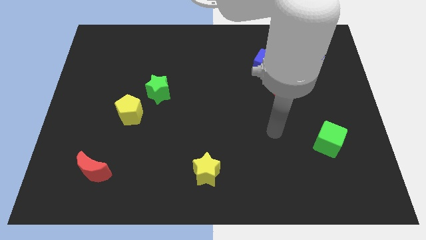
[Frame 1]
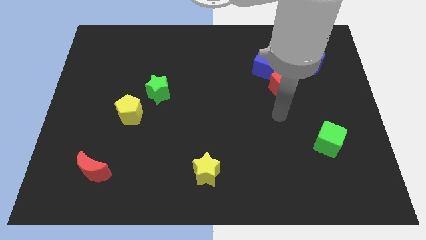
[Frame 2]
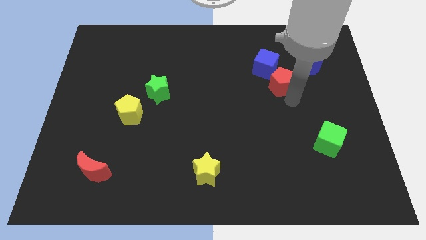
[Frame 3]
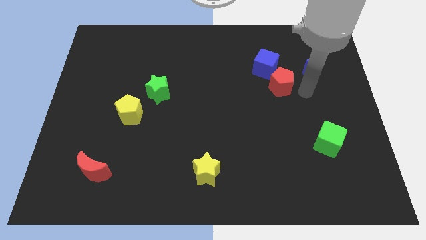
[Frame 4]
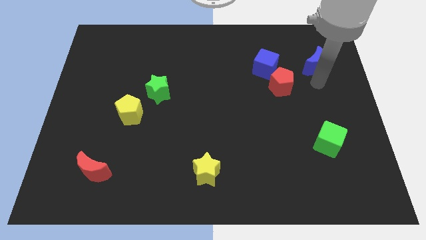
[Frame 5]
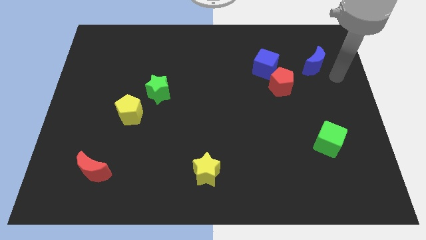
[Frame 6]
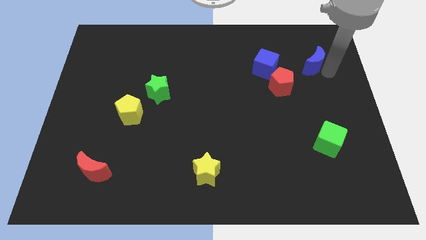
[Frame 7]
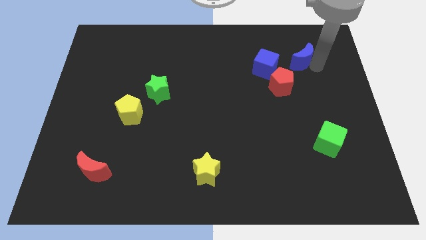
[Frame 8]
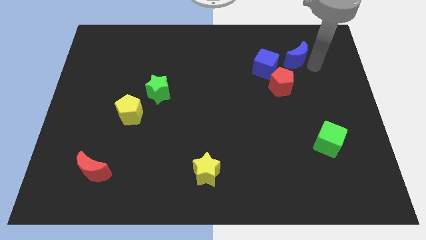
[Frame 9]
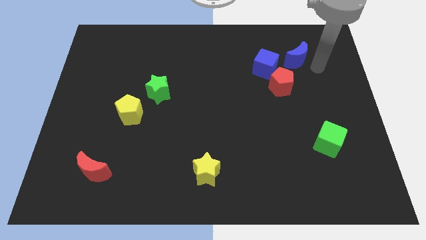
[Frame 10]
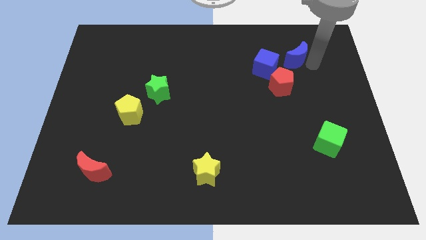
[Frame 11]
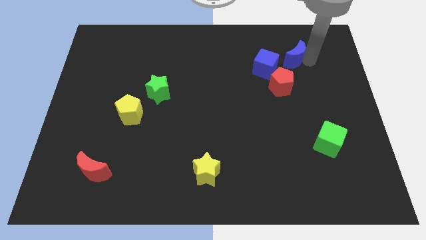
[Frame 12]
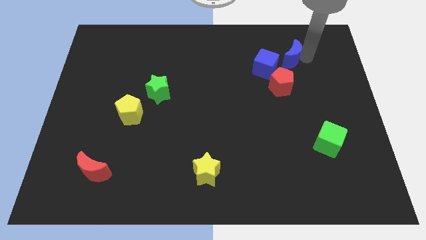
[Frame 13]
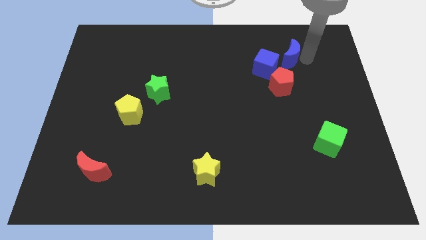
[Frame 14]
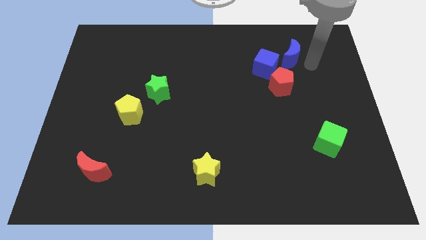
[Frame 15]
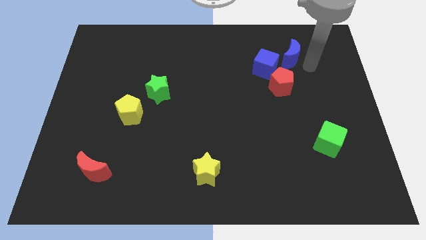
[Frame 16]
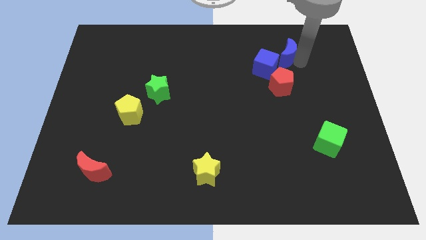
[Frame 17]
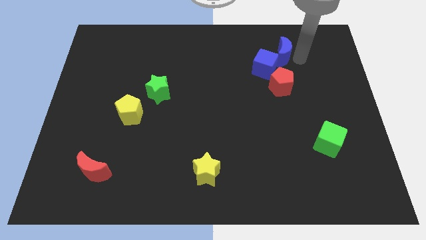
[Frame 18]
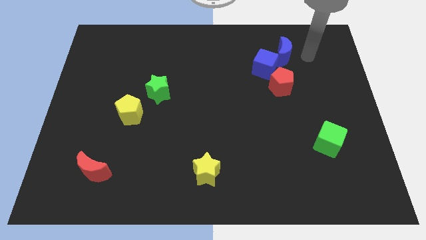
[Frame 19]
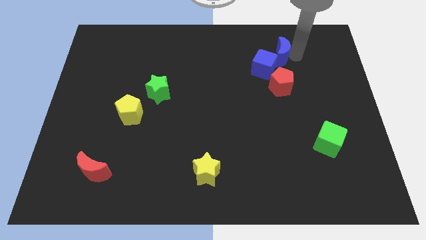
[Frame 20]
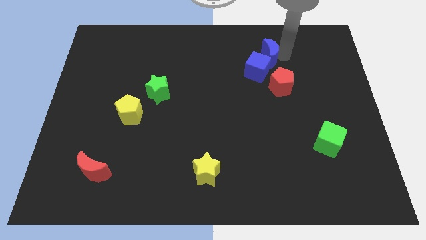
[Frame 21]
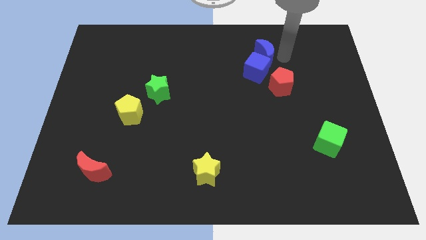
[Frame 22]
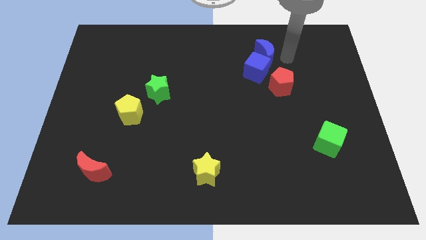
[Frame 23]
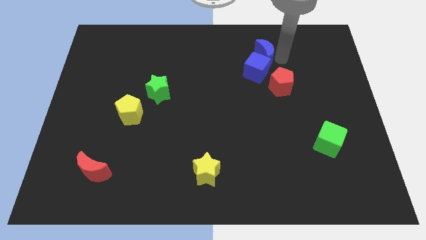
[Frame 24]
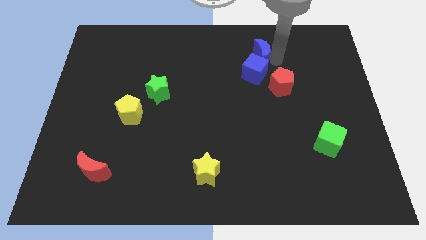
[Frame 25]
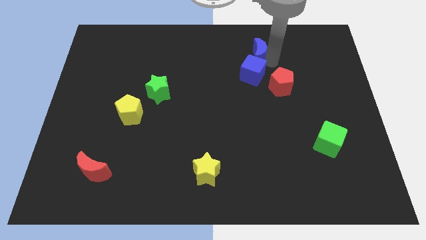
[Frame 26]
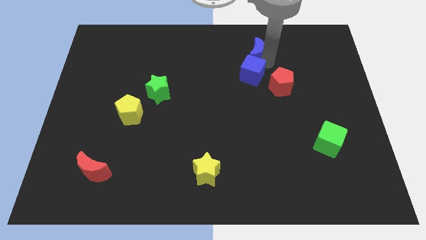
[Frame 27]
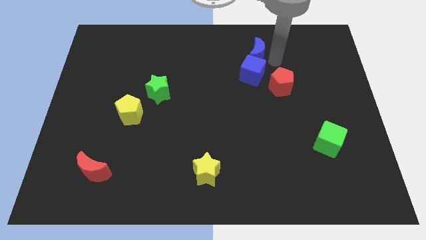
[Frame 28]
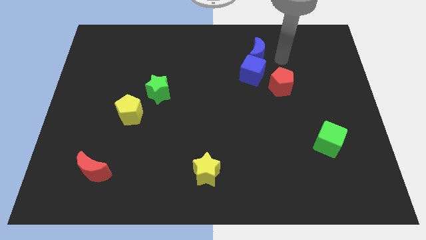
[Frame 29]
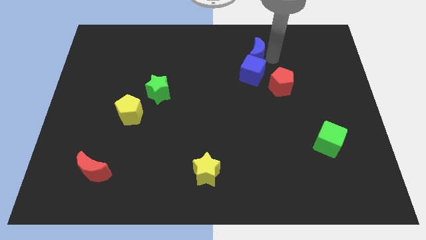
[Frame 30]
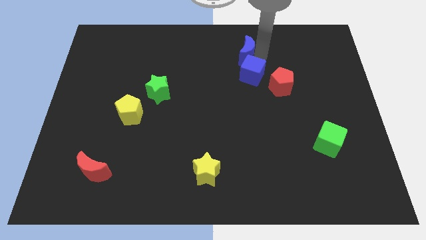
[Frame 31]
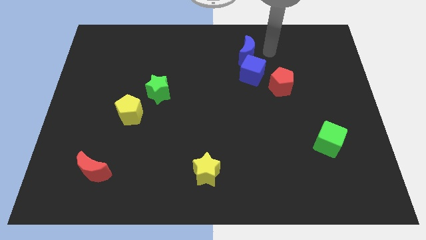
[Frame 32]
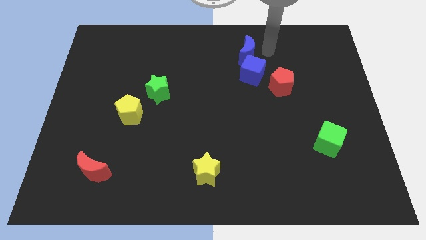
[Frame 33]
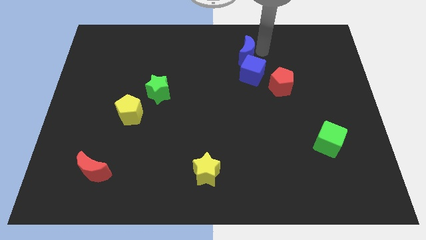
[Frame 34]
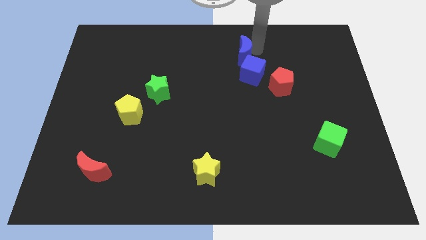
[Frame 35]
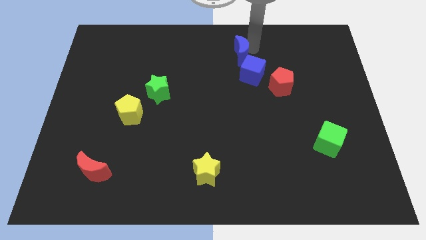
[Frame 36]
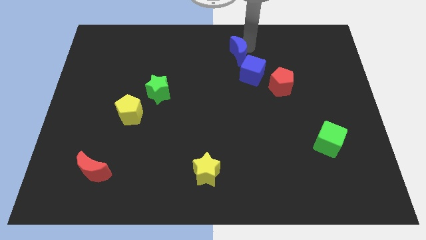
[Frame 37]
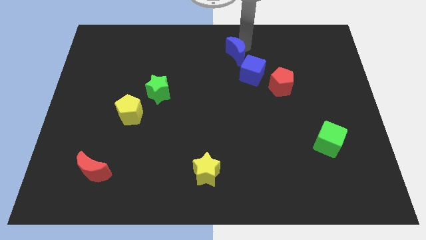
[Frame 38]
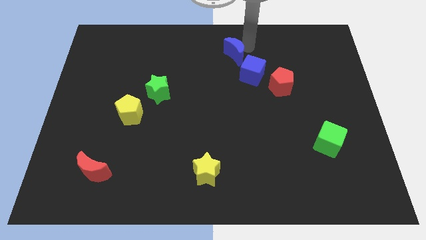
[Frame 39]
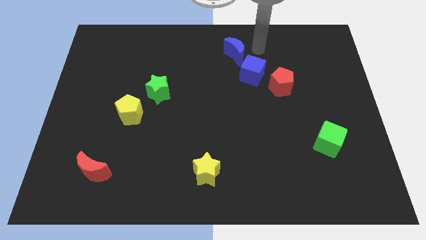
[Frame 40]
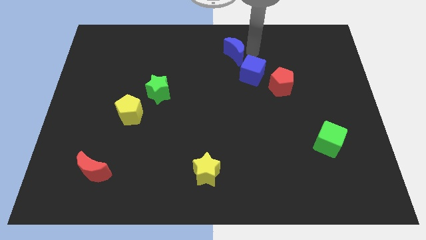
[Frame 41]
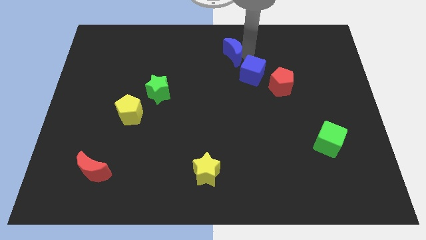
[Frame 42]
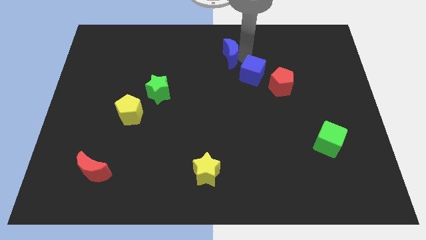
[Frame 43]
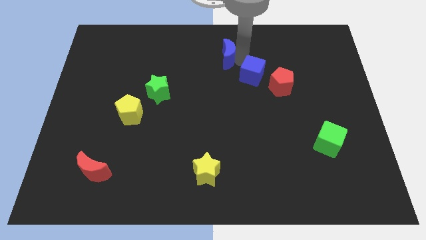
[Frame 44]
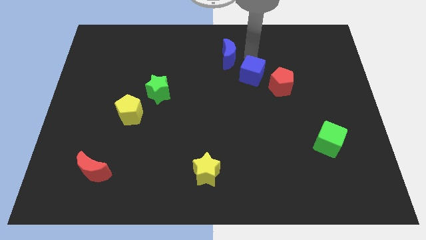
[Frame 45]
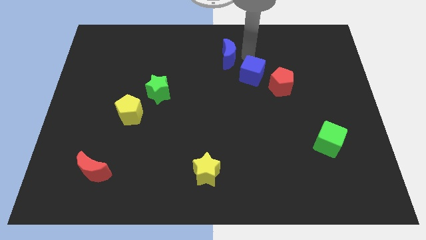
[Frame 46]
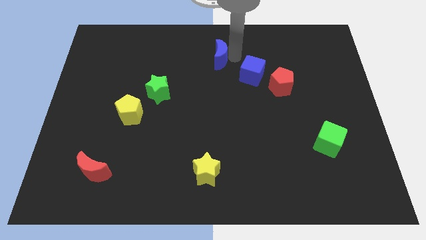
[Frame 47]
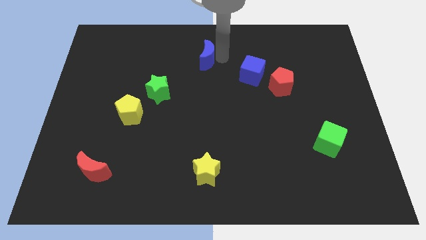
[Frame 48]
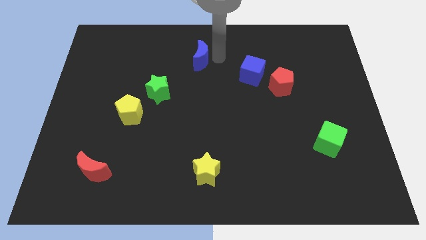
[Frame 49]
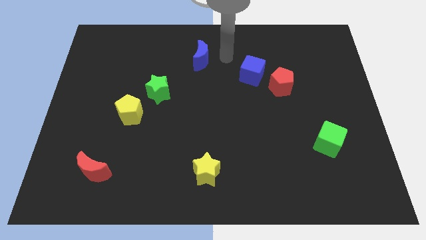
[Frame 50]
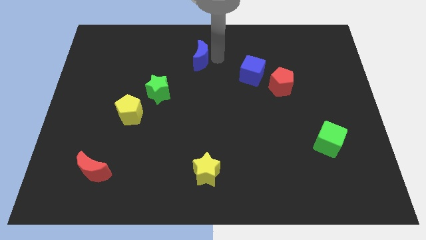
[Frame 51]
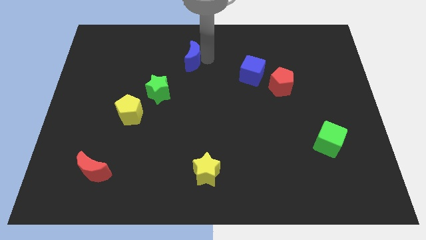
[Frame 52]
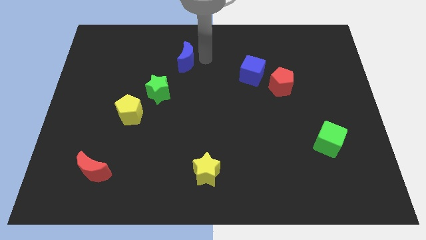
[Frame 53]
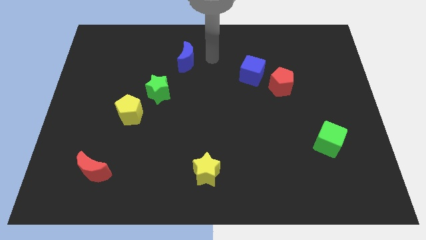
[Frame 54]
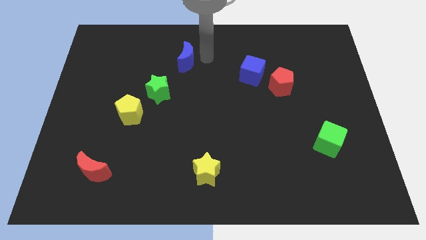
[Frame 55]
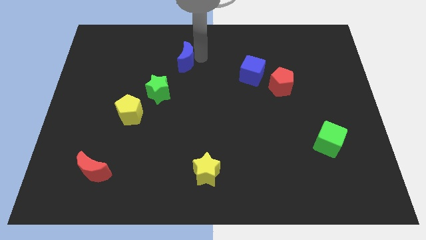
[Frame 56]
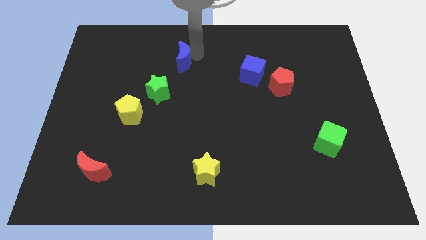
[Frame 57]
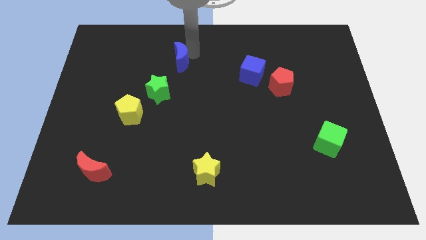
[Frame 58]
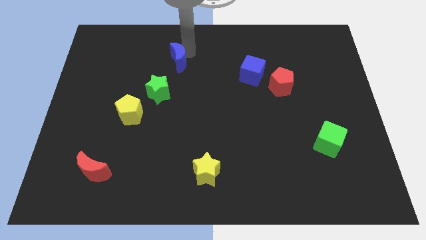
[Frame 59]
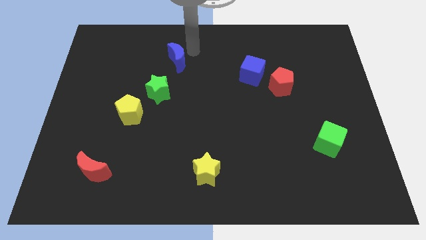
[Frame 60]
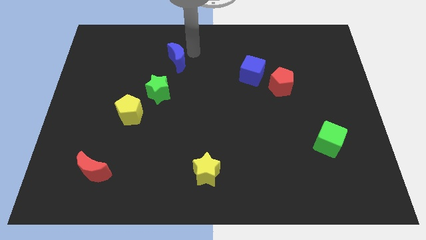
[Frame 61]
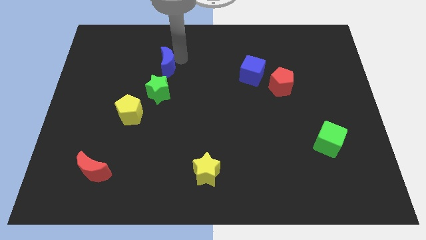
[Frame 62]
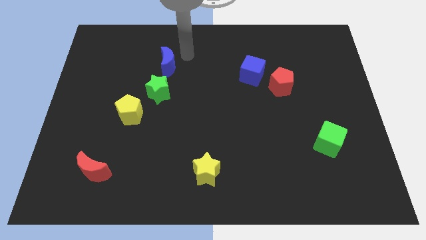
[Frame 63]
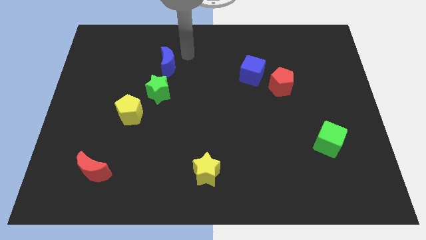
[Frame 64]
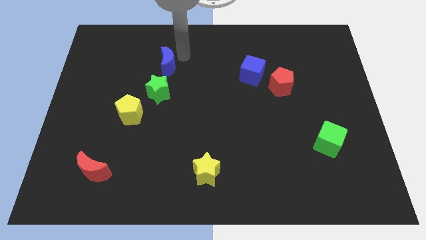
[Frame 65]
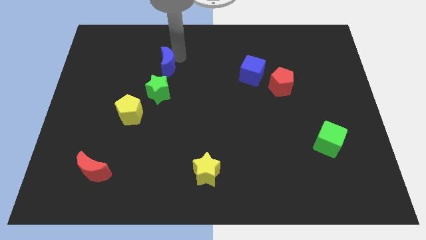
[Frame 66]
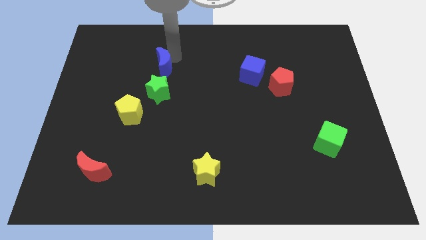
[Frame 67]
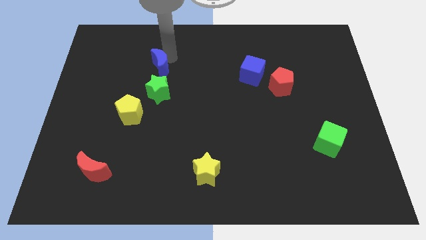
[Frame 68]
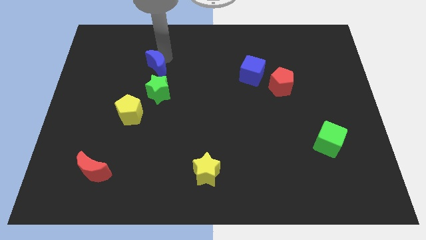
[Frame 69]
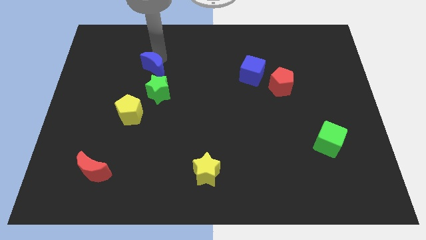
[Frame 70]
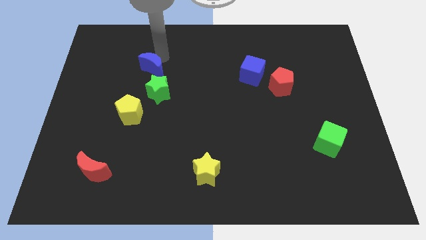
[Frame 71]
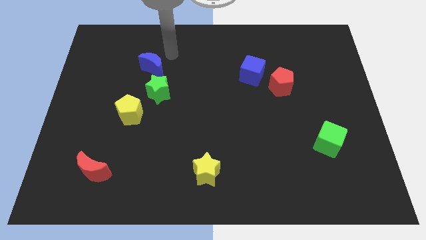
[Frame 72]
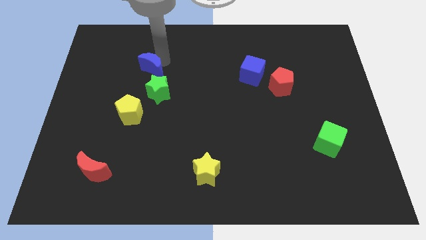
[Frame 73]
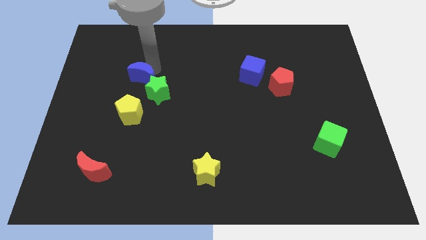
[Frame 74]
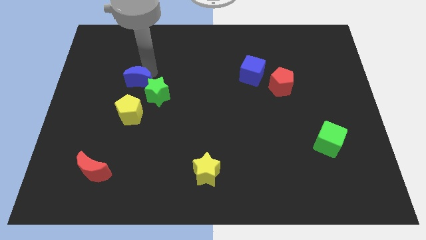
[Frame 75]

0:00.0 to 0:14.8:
slide the blue moon to the left of the green star
